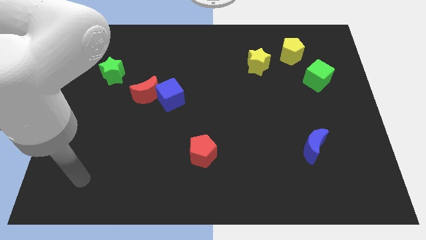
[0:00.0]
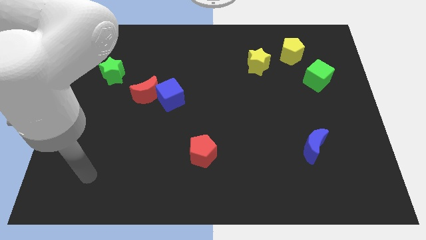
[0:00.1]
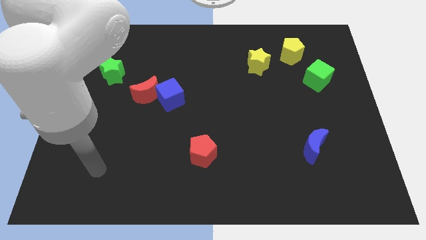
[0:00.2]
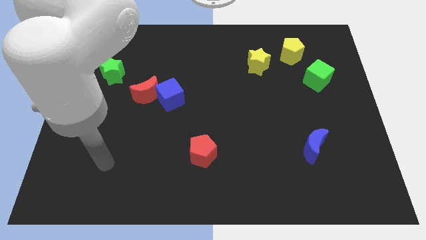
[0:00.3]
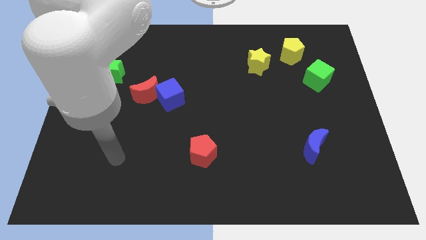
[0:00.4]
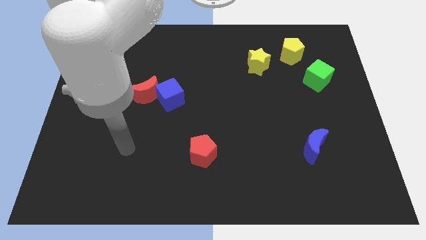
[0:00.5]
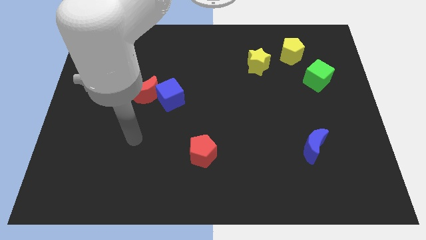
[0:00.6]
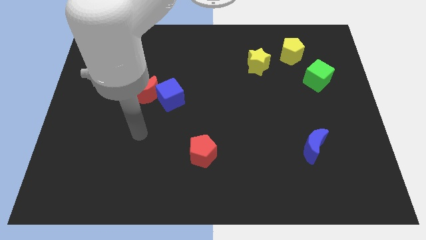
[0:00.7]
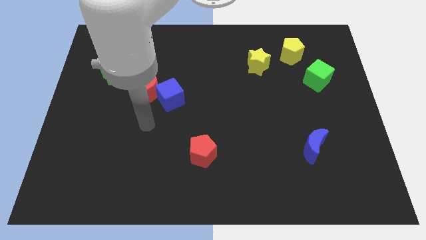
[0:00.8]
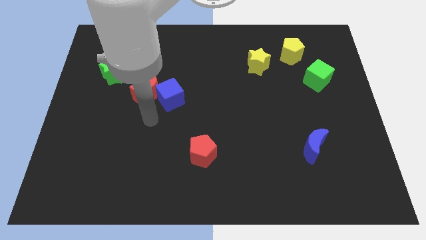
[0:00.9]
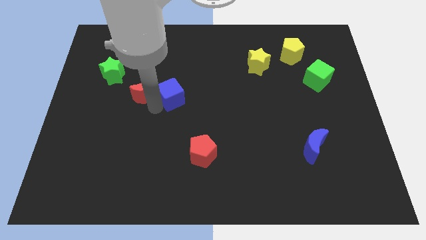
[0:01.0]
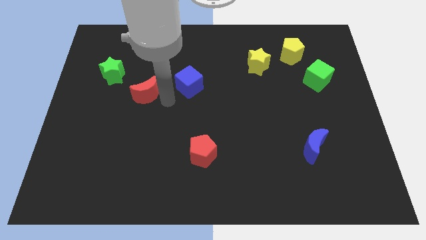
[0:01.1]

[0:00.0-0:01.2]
move the red moon away from the blue cube

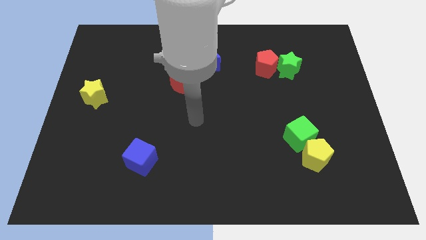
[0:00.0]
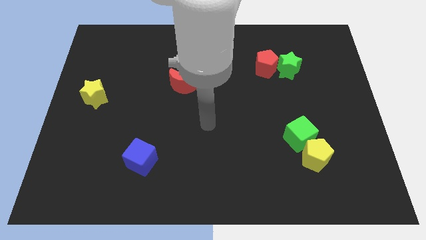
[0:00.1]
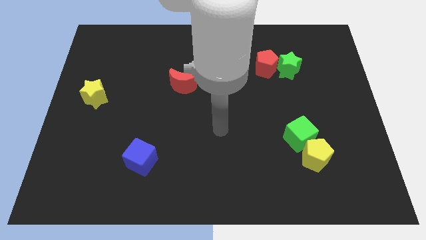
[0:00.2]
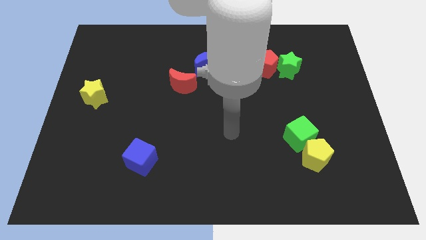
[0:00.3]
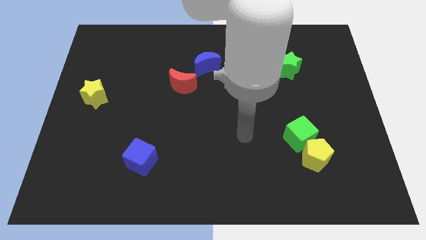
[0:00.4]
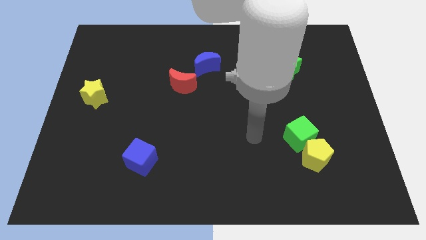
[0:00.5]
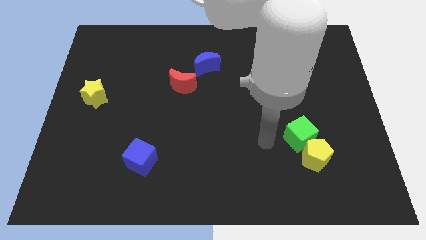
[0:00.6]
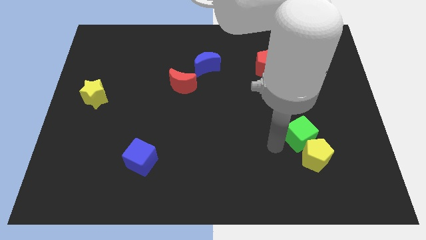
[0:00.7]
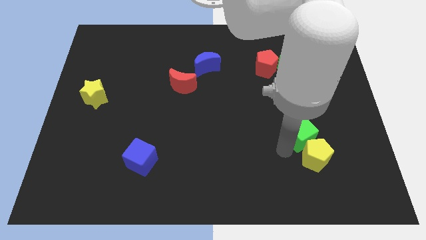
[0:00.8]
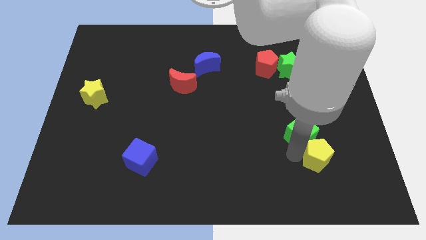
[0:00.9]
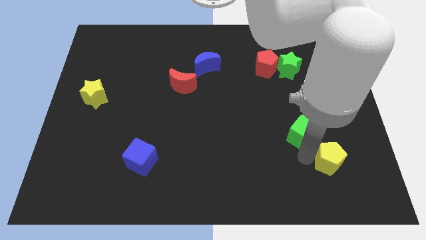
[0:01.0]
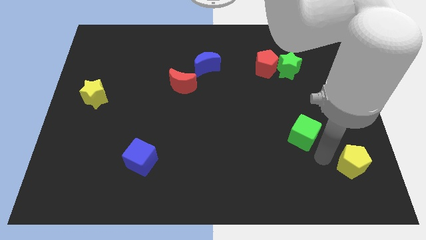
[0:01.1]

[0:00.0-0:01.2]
pull the green cube apart from the yellow pentagon

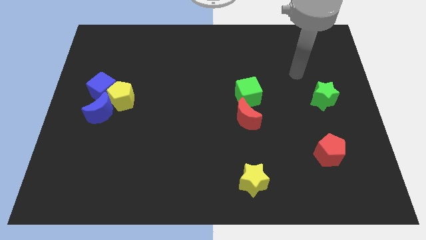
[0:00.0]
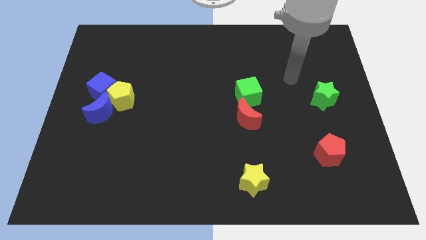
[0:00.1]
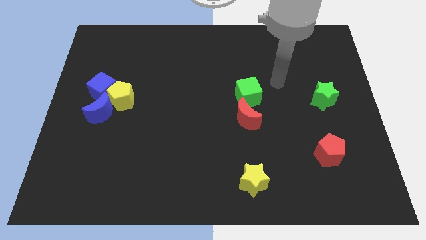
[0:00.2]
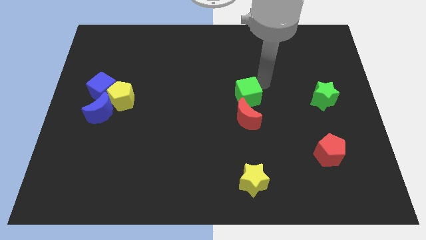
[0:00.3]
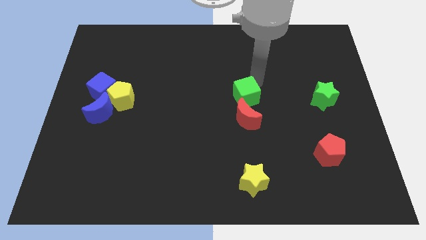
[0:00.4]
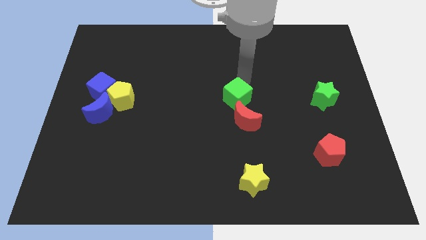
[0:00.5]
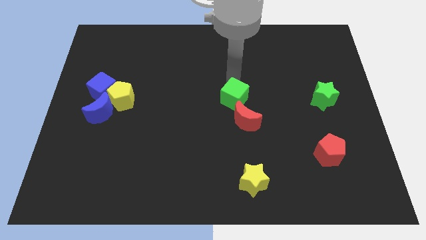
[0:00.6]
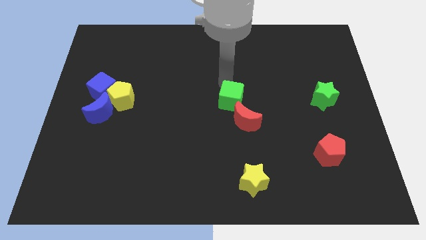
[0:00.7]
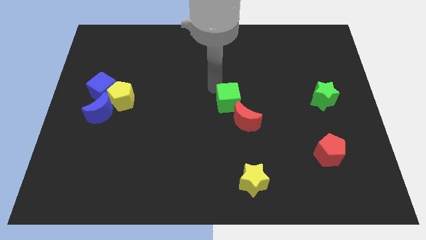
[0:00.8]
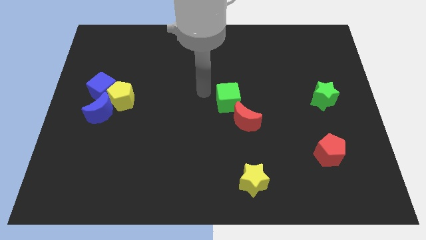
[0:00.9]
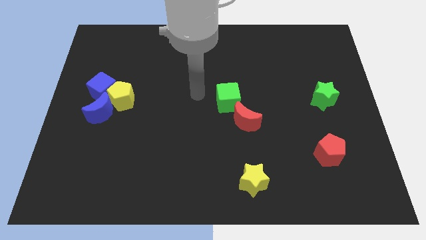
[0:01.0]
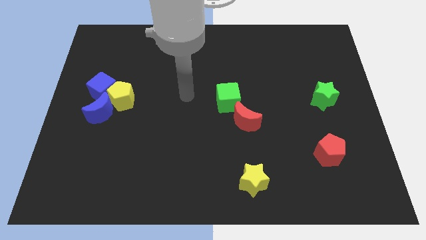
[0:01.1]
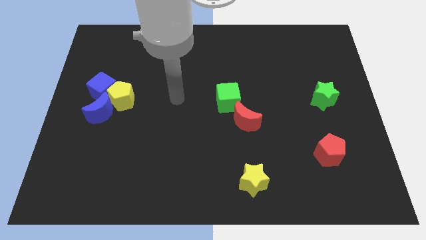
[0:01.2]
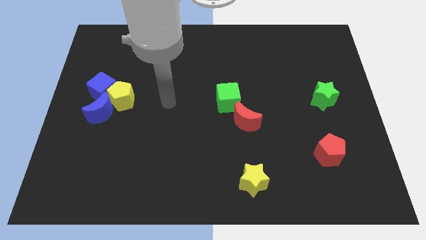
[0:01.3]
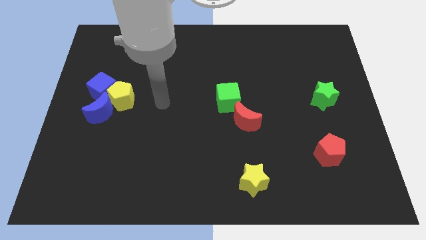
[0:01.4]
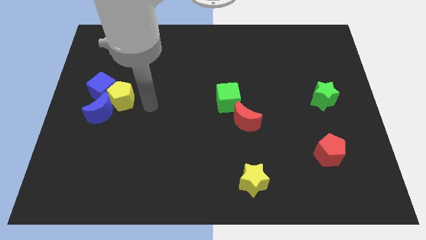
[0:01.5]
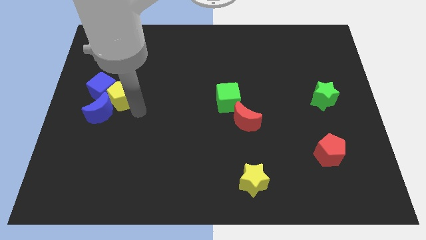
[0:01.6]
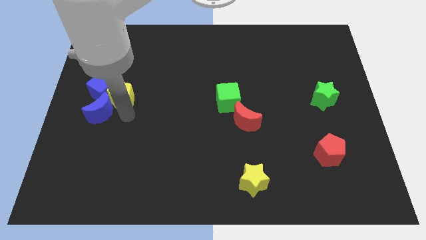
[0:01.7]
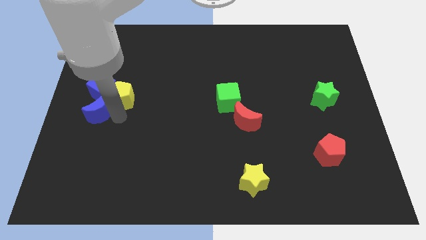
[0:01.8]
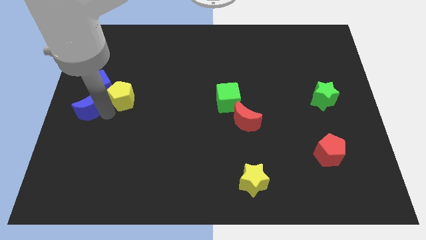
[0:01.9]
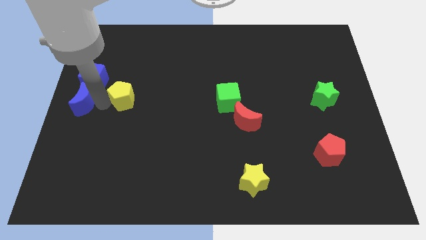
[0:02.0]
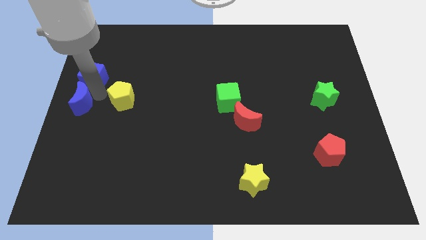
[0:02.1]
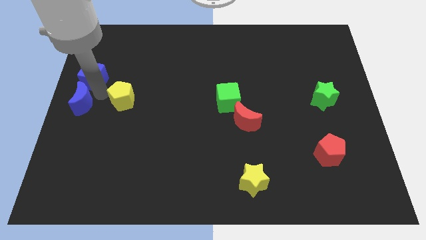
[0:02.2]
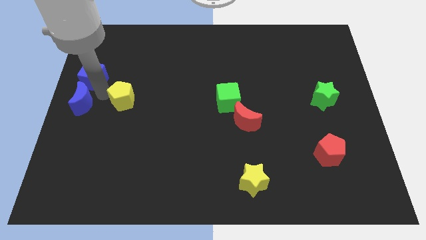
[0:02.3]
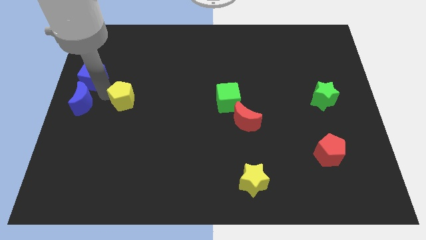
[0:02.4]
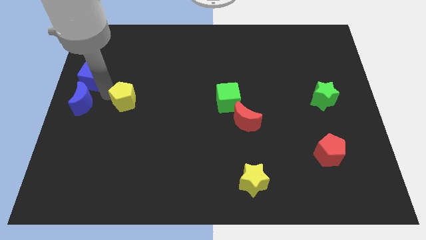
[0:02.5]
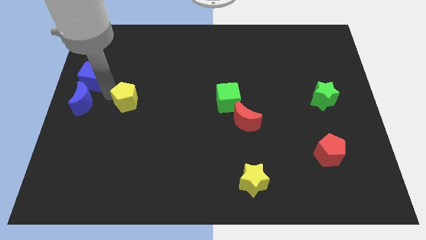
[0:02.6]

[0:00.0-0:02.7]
separate the yellow pentagon from the blue cube and blue moon

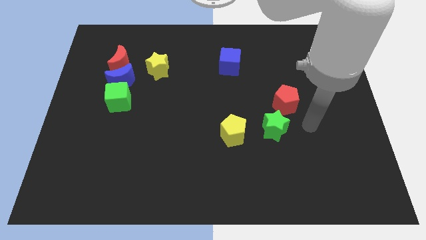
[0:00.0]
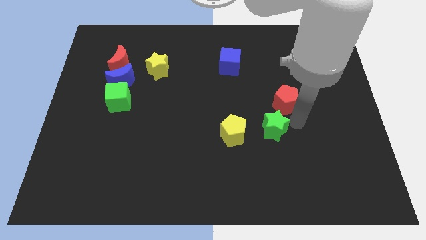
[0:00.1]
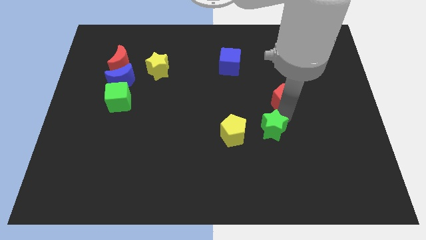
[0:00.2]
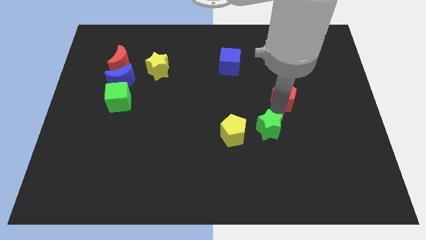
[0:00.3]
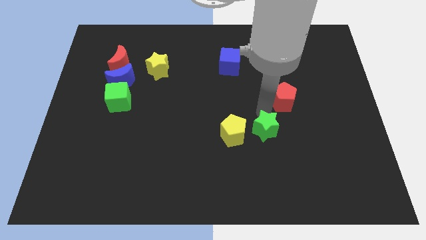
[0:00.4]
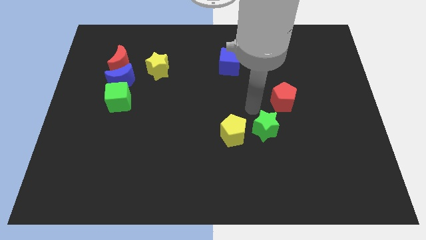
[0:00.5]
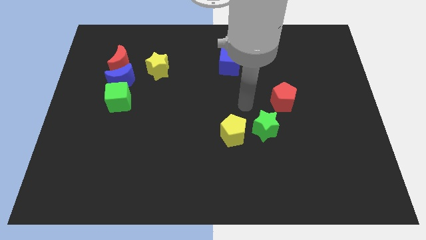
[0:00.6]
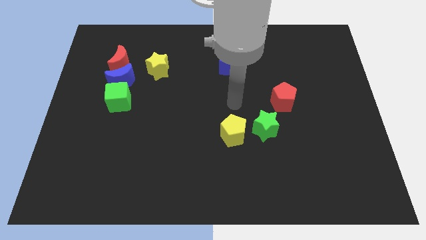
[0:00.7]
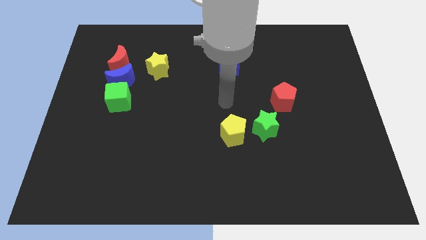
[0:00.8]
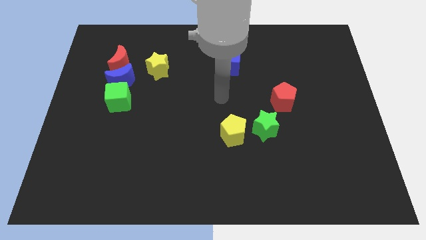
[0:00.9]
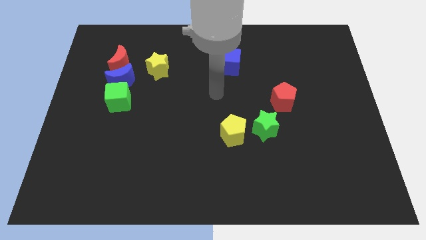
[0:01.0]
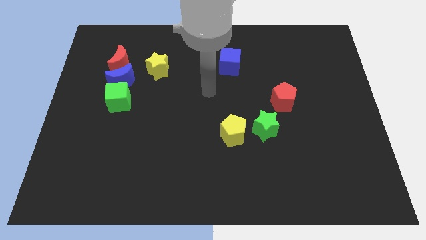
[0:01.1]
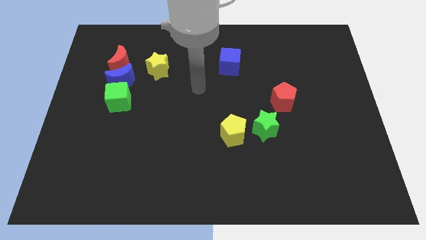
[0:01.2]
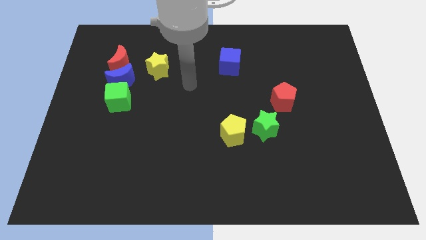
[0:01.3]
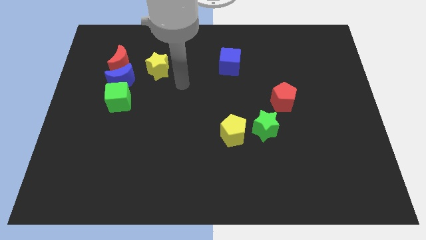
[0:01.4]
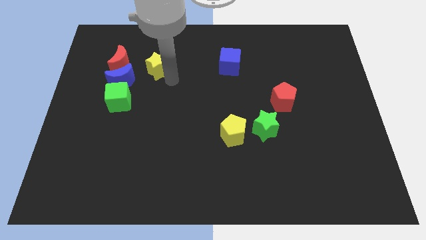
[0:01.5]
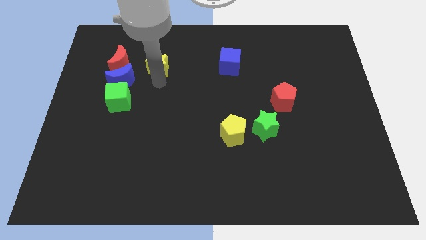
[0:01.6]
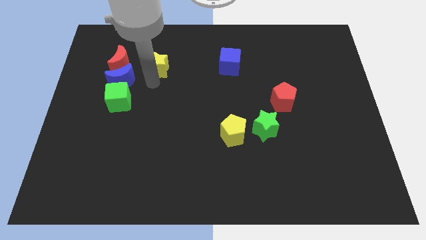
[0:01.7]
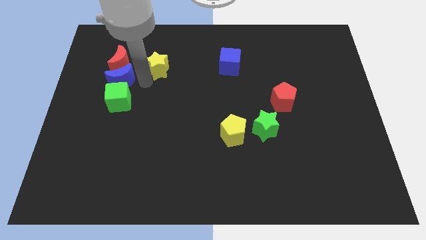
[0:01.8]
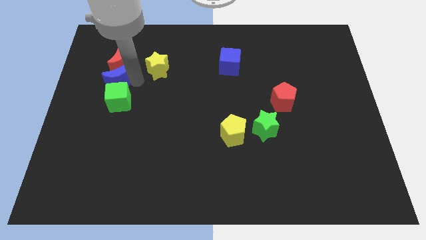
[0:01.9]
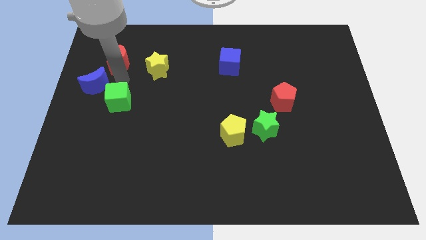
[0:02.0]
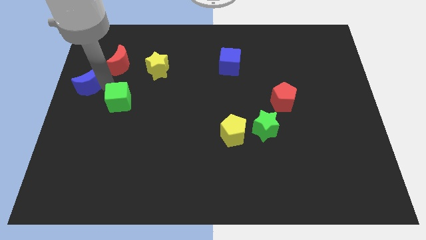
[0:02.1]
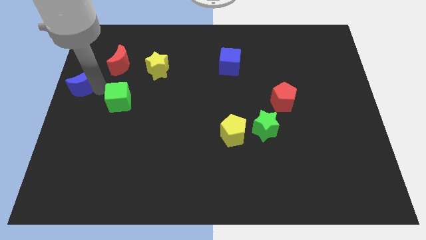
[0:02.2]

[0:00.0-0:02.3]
move the green cube away from the blue moon

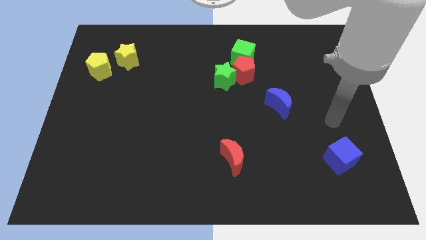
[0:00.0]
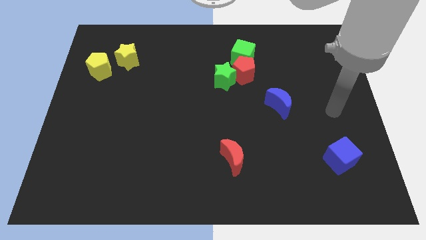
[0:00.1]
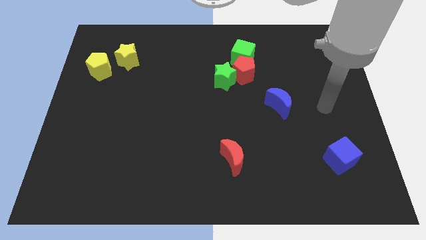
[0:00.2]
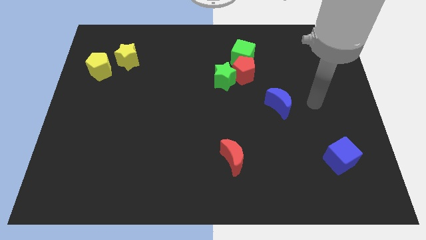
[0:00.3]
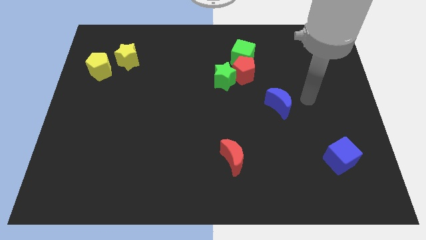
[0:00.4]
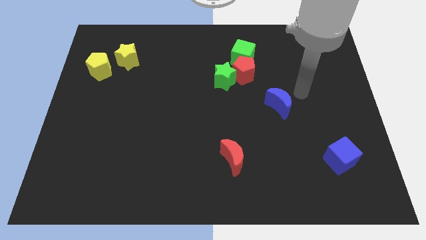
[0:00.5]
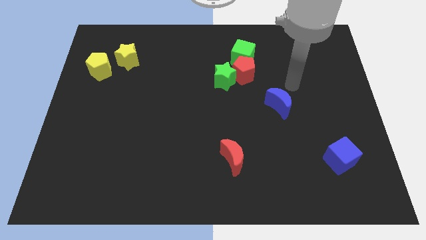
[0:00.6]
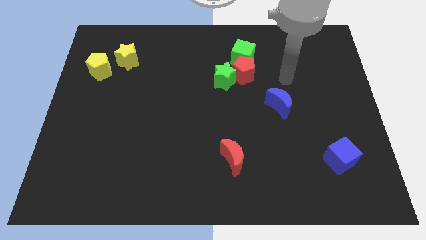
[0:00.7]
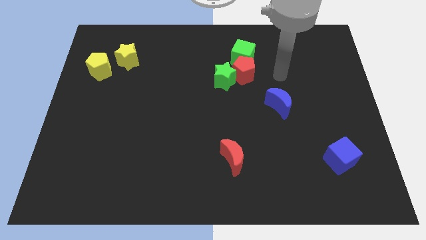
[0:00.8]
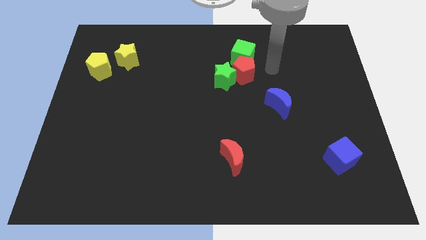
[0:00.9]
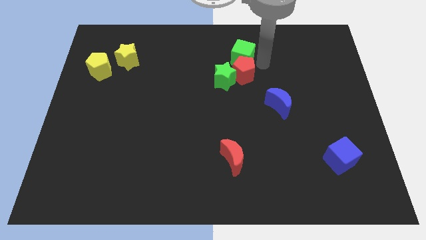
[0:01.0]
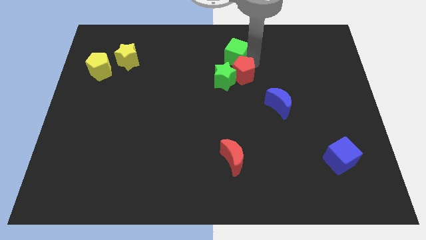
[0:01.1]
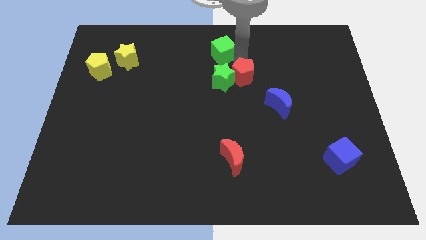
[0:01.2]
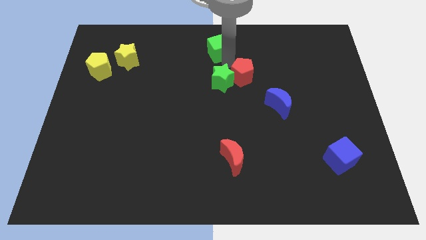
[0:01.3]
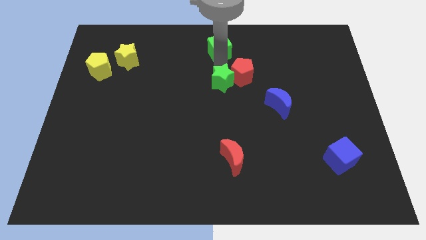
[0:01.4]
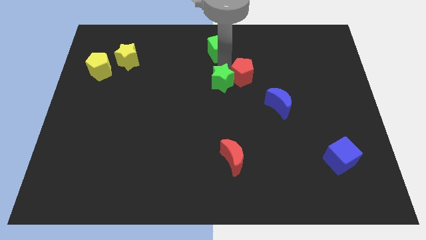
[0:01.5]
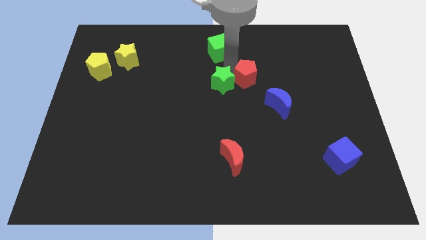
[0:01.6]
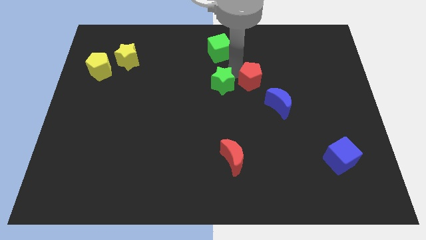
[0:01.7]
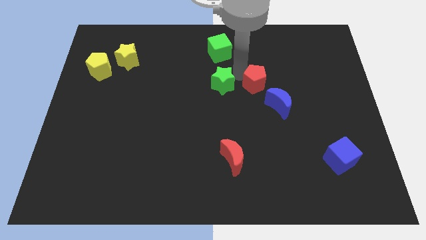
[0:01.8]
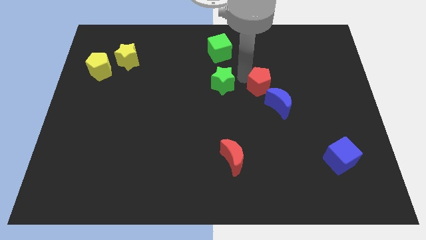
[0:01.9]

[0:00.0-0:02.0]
separate the red pentagon from the green star and green cube
